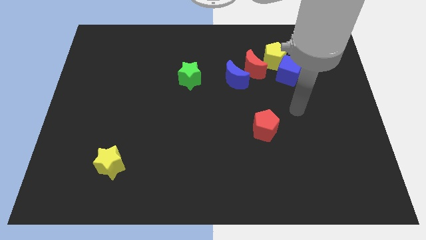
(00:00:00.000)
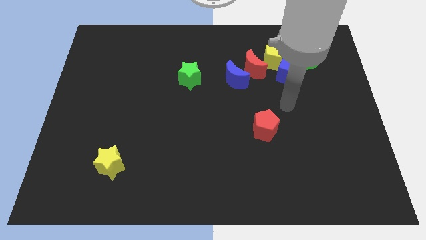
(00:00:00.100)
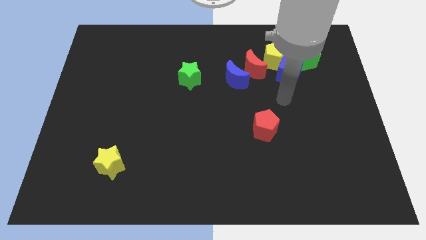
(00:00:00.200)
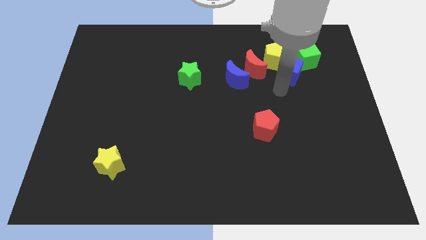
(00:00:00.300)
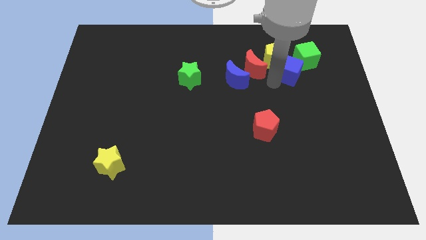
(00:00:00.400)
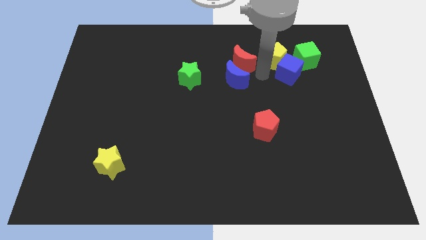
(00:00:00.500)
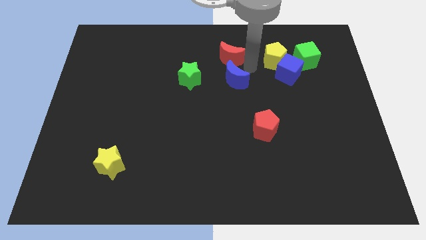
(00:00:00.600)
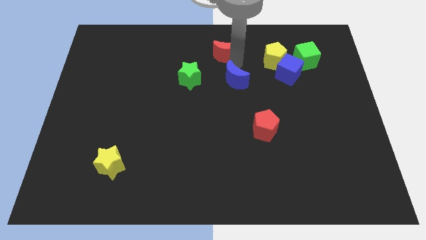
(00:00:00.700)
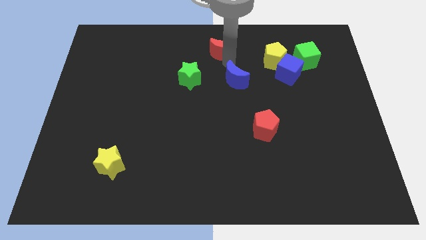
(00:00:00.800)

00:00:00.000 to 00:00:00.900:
move the blue moon away from the red moon

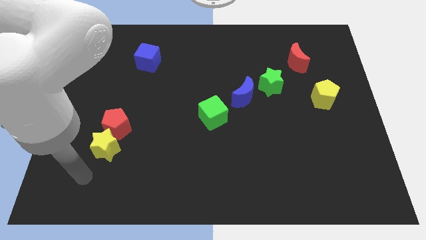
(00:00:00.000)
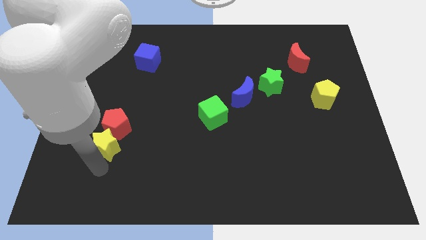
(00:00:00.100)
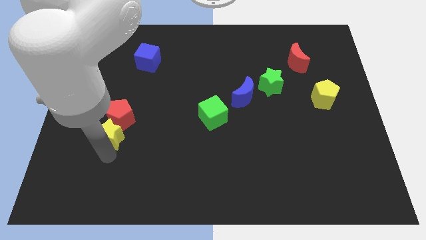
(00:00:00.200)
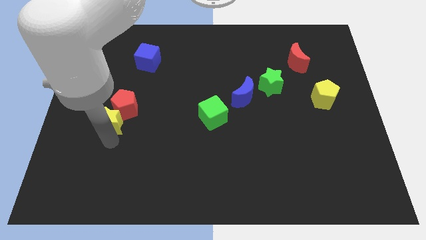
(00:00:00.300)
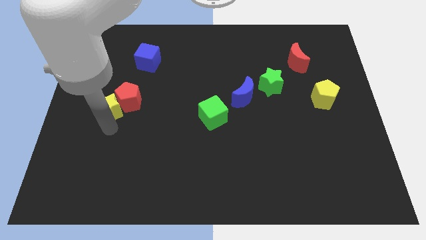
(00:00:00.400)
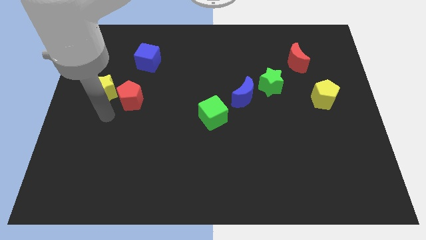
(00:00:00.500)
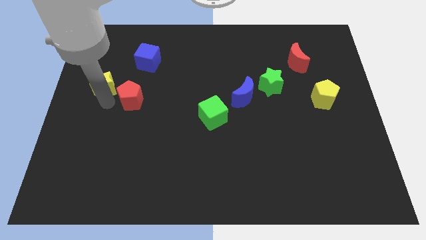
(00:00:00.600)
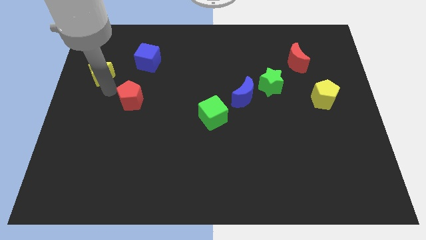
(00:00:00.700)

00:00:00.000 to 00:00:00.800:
pull the red pentagon apart from the yellow star

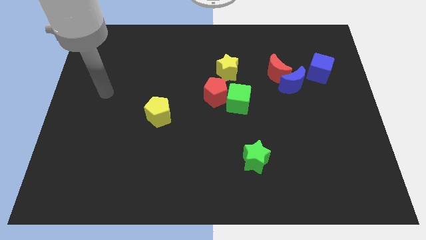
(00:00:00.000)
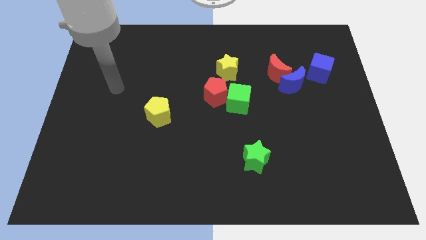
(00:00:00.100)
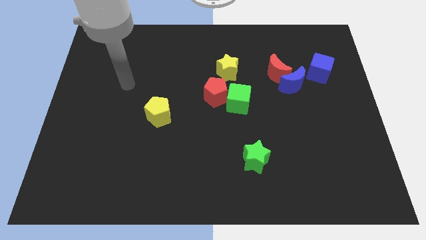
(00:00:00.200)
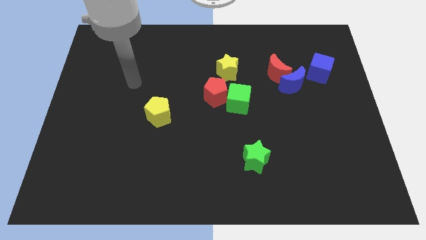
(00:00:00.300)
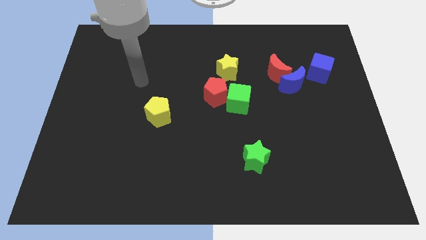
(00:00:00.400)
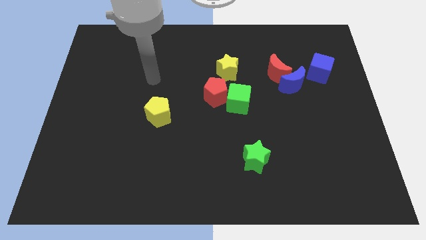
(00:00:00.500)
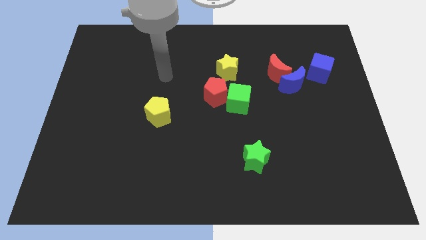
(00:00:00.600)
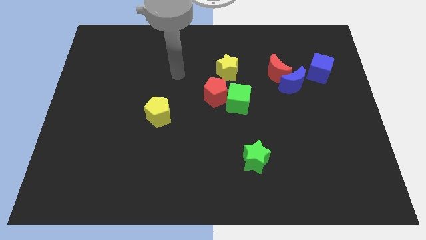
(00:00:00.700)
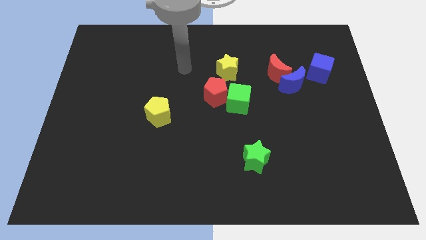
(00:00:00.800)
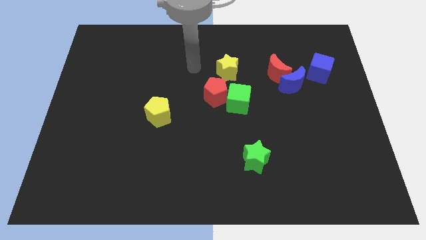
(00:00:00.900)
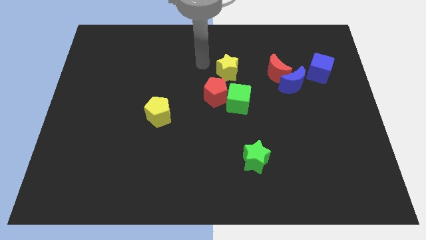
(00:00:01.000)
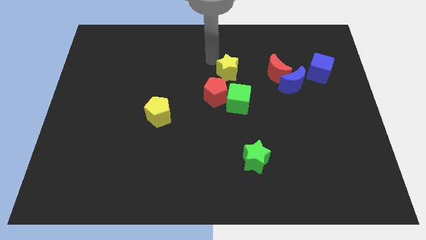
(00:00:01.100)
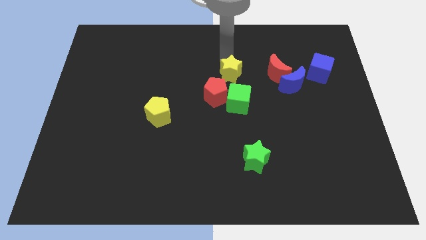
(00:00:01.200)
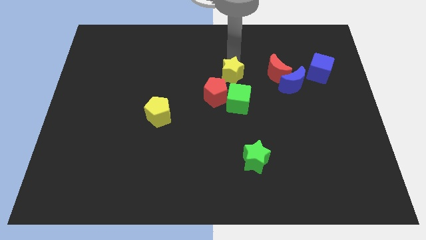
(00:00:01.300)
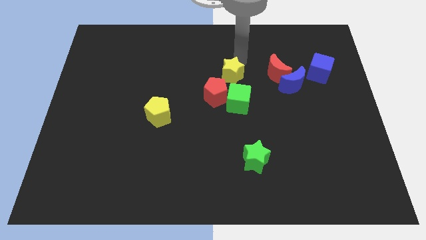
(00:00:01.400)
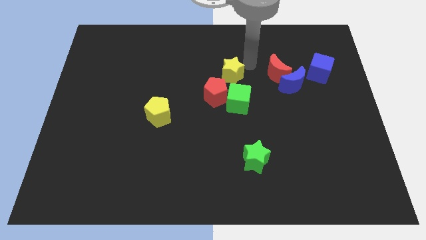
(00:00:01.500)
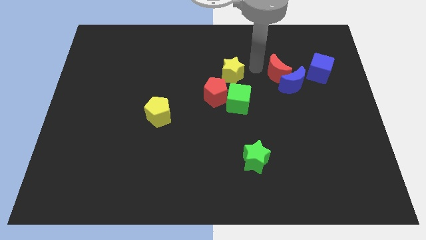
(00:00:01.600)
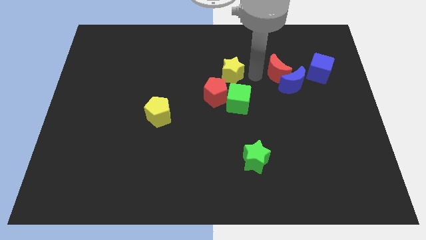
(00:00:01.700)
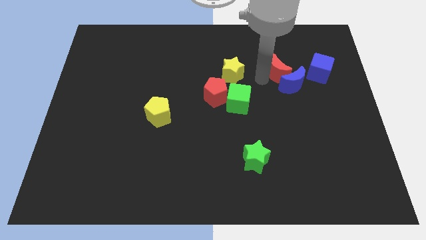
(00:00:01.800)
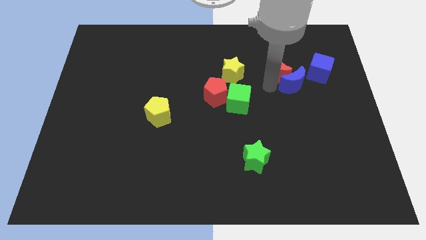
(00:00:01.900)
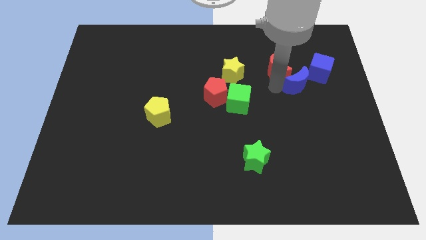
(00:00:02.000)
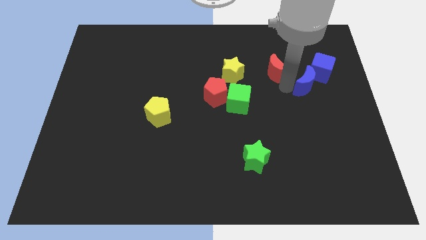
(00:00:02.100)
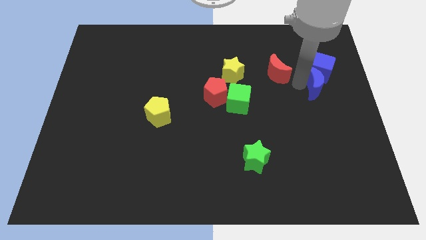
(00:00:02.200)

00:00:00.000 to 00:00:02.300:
separate the red moon from the blue moon

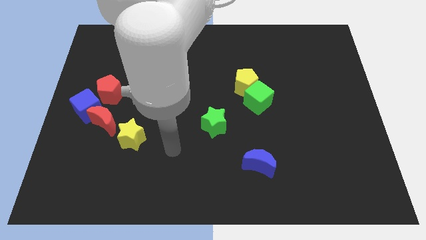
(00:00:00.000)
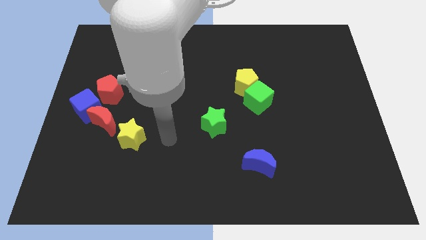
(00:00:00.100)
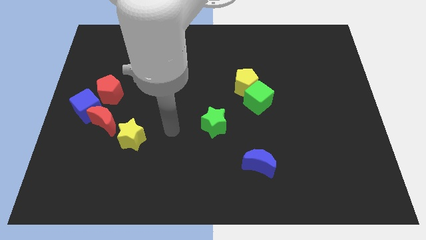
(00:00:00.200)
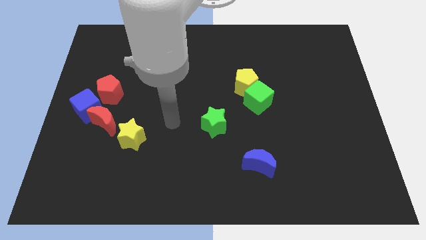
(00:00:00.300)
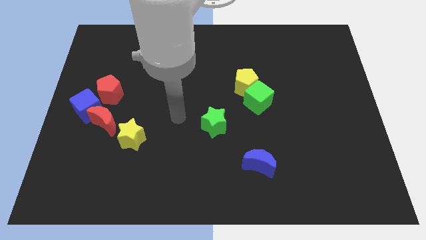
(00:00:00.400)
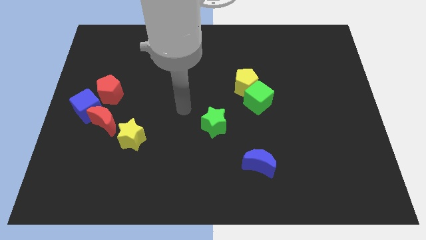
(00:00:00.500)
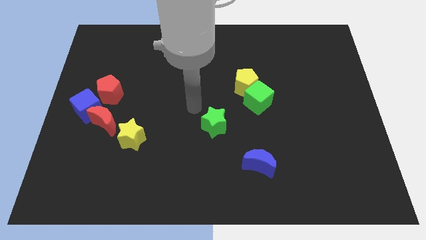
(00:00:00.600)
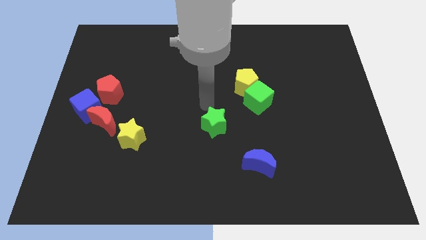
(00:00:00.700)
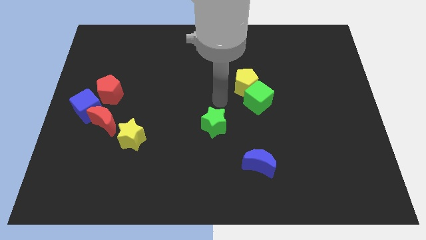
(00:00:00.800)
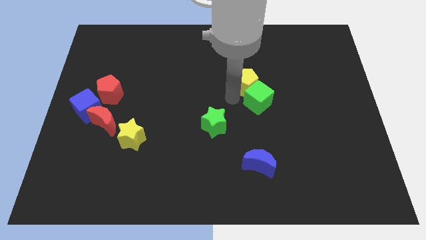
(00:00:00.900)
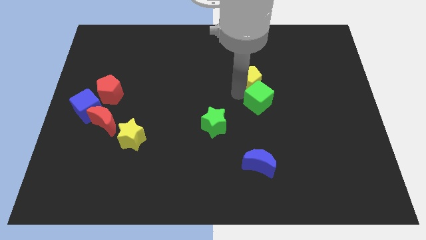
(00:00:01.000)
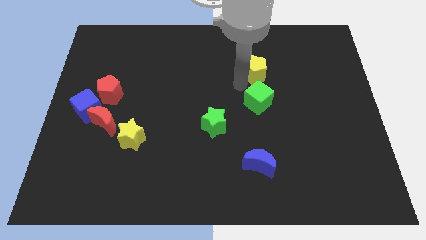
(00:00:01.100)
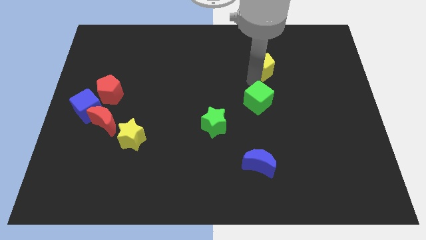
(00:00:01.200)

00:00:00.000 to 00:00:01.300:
pull the green cube apart from the yellow pentagon

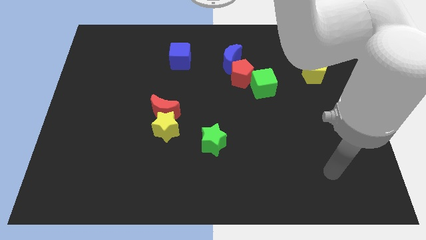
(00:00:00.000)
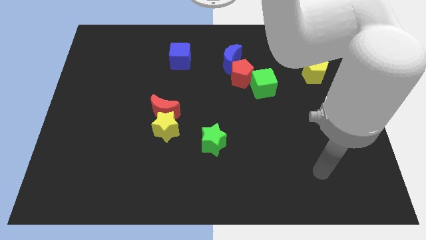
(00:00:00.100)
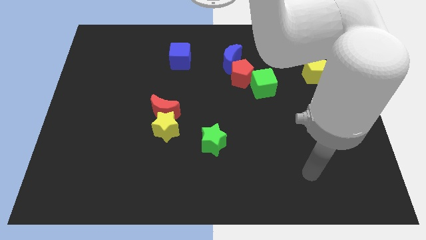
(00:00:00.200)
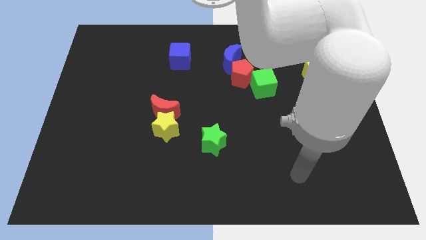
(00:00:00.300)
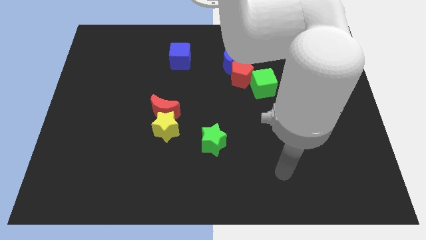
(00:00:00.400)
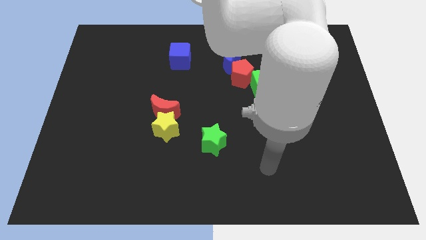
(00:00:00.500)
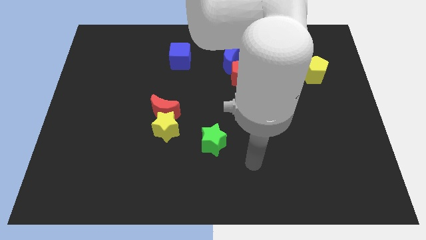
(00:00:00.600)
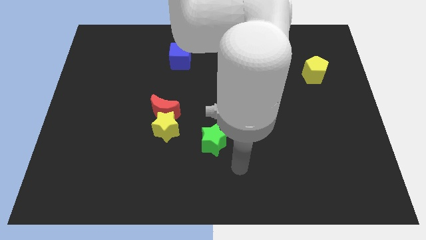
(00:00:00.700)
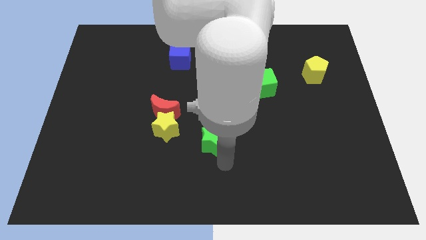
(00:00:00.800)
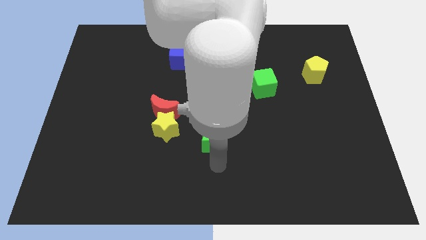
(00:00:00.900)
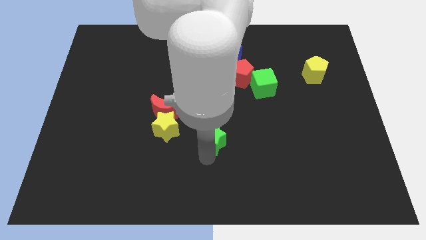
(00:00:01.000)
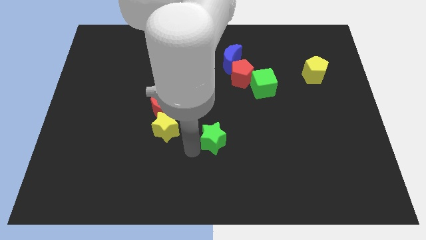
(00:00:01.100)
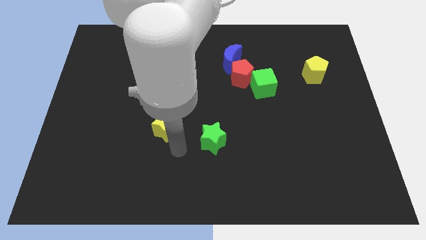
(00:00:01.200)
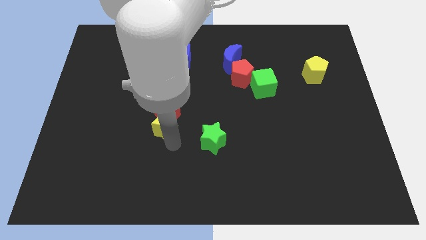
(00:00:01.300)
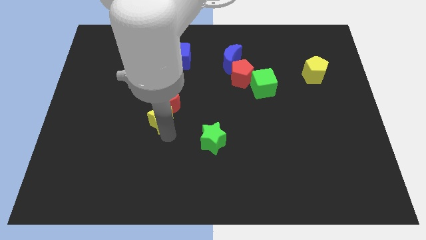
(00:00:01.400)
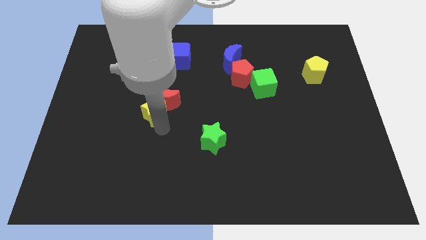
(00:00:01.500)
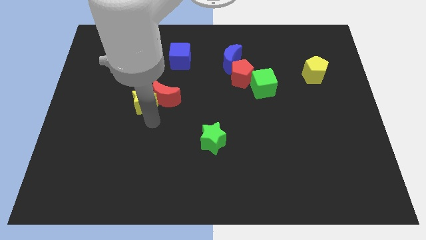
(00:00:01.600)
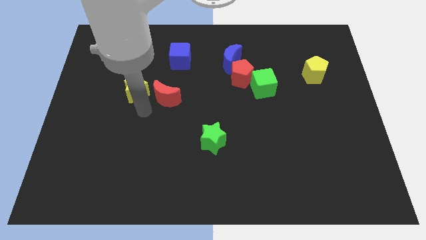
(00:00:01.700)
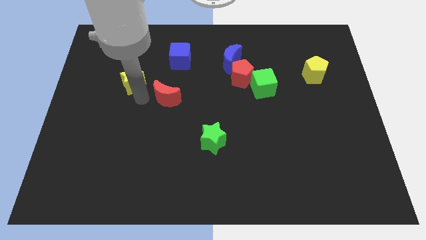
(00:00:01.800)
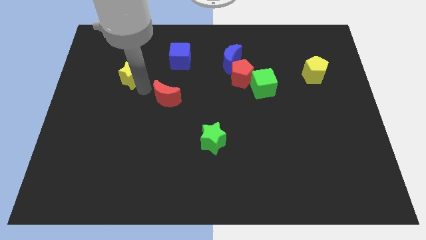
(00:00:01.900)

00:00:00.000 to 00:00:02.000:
pull the red moon apart from the yellow star

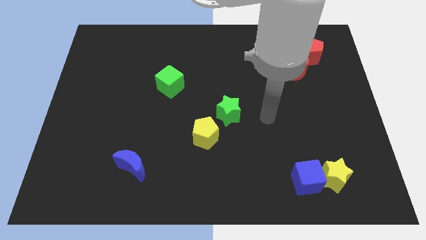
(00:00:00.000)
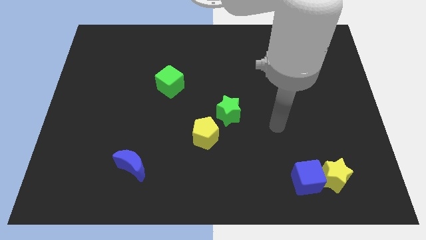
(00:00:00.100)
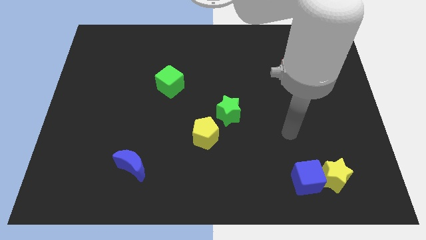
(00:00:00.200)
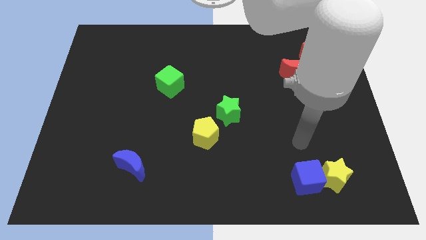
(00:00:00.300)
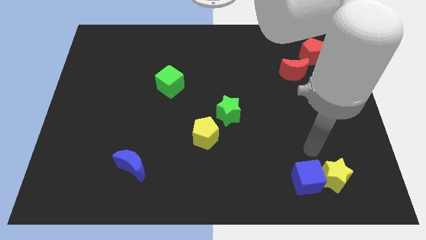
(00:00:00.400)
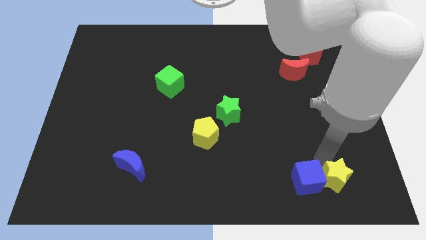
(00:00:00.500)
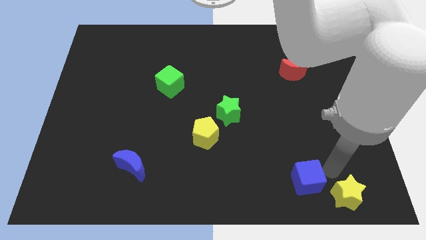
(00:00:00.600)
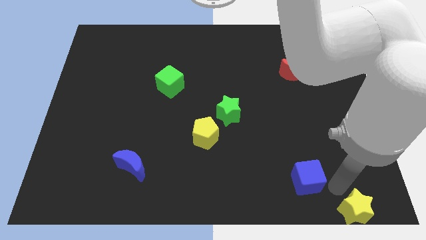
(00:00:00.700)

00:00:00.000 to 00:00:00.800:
pull the blue cube apart from the yellow star

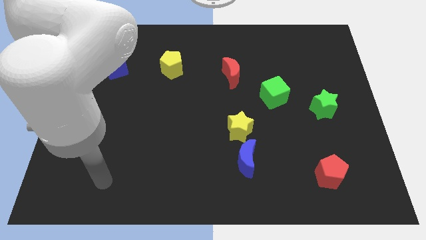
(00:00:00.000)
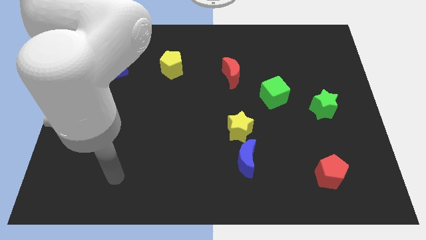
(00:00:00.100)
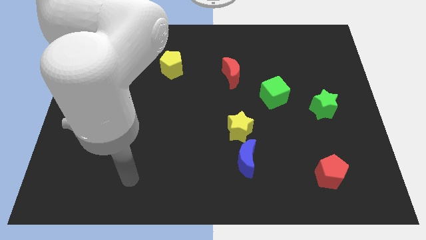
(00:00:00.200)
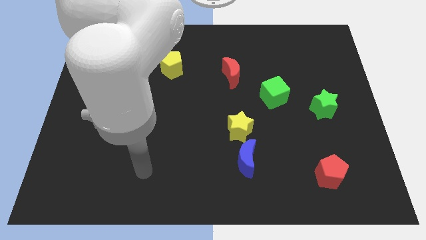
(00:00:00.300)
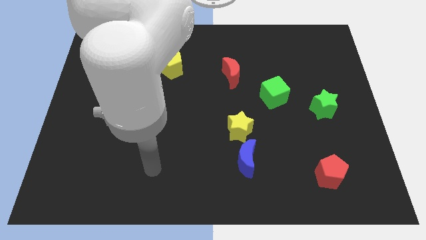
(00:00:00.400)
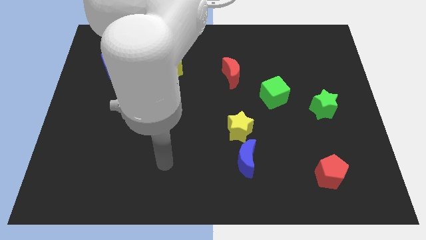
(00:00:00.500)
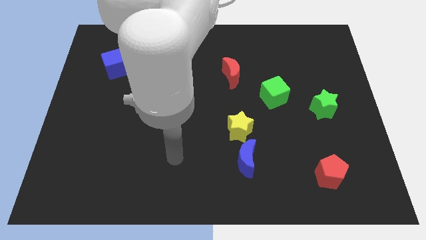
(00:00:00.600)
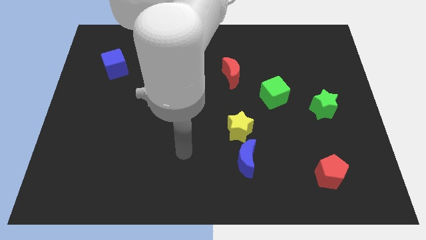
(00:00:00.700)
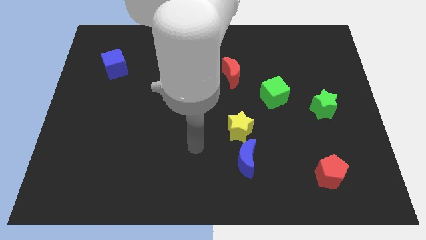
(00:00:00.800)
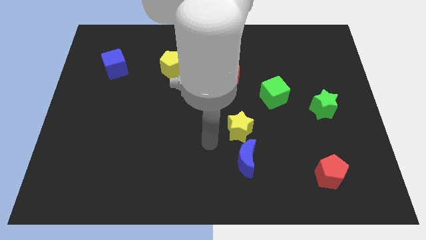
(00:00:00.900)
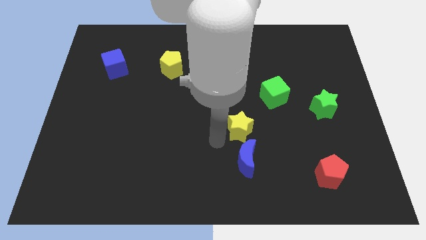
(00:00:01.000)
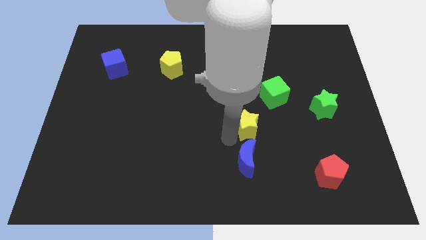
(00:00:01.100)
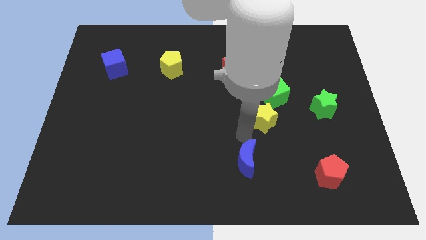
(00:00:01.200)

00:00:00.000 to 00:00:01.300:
separate the blue moon from the yellow star
